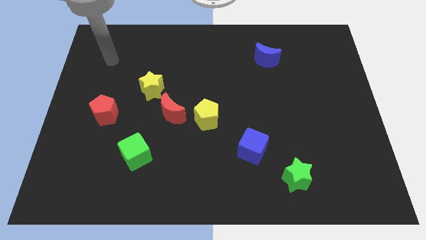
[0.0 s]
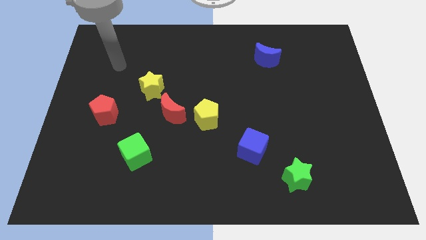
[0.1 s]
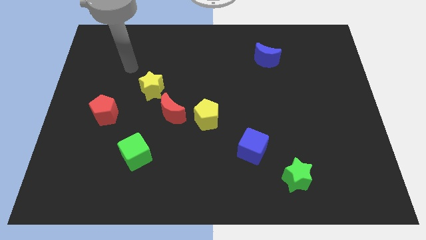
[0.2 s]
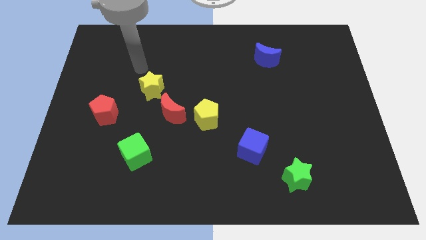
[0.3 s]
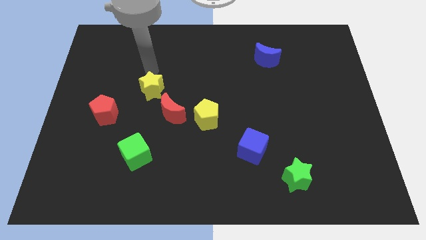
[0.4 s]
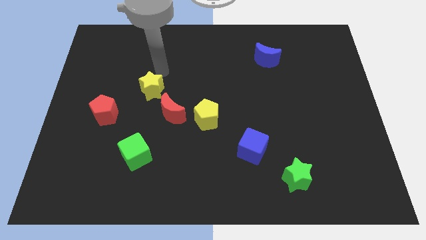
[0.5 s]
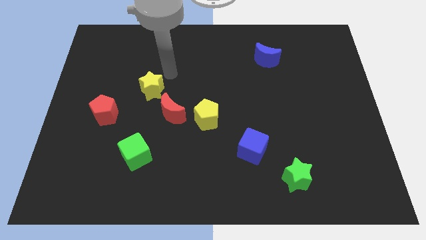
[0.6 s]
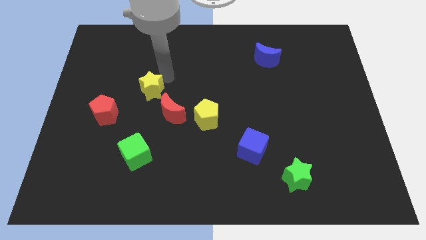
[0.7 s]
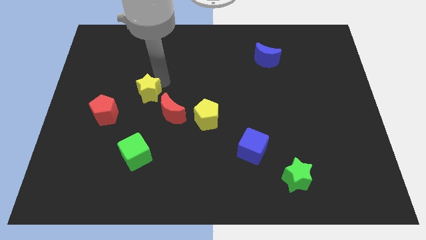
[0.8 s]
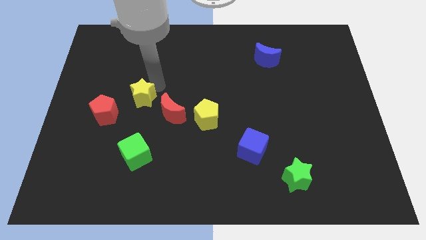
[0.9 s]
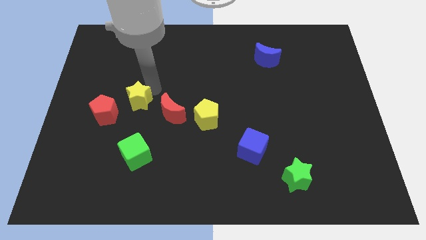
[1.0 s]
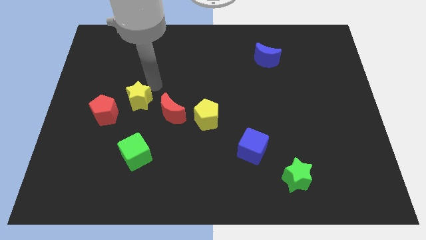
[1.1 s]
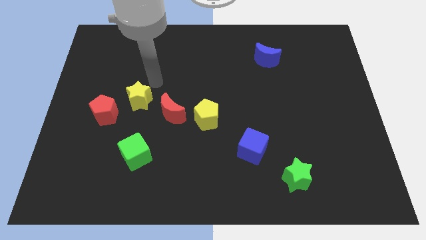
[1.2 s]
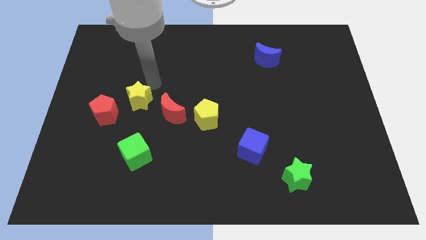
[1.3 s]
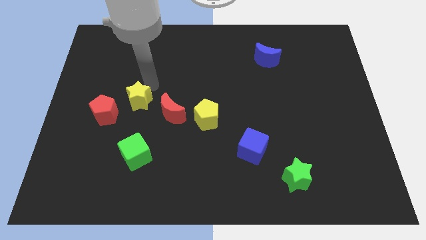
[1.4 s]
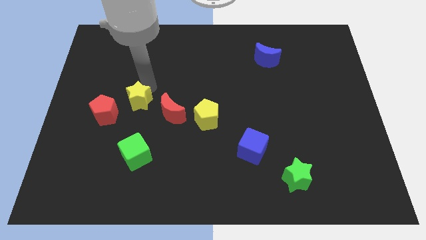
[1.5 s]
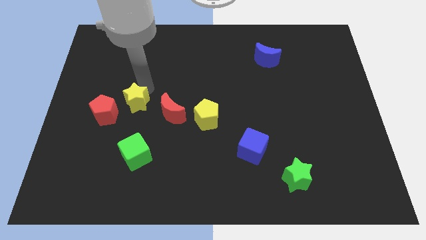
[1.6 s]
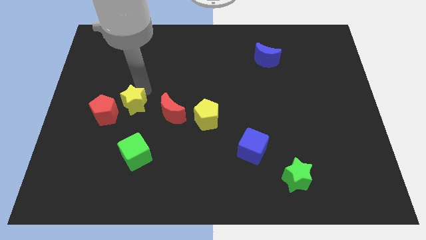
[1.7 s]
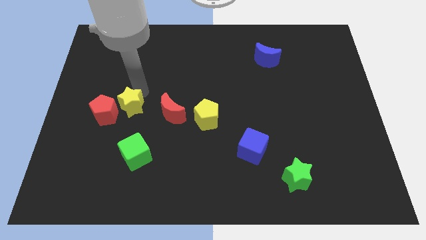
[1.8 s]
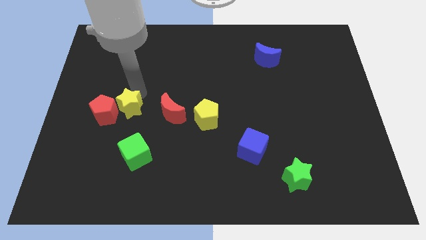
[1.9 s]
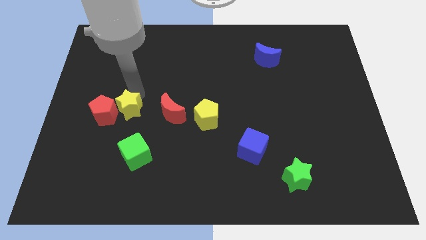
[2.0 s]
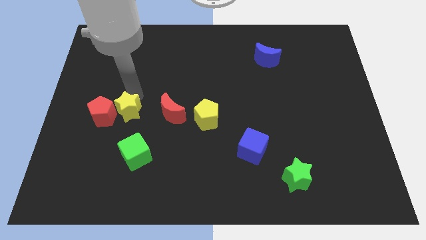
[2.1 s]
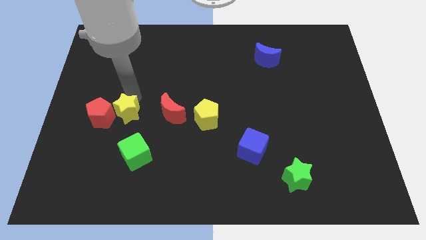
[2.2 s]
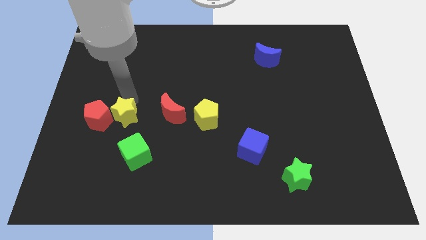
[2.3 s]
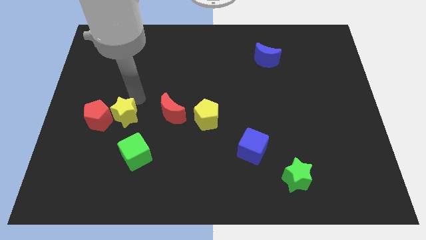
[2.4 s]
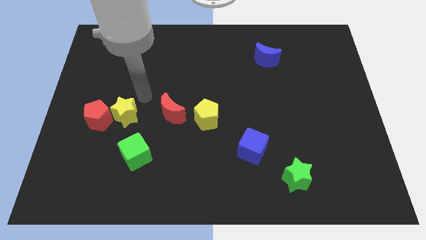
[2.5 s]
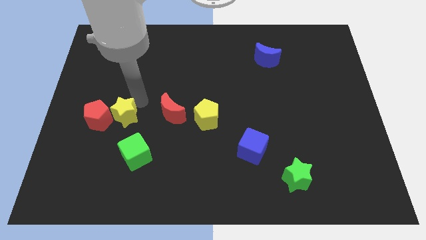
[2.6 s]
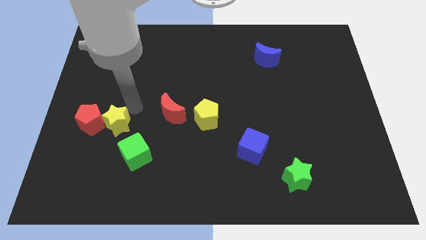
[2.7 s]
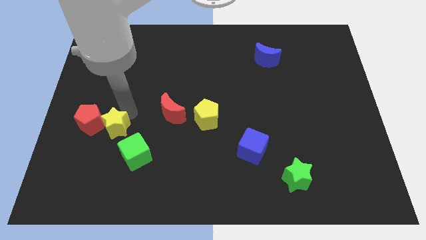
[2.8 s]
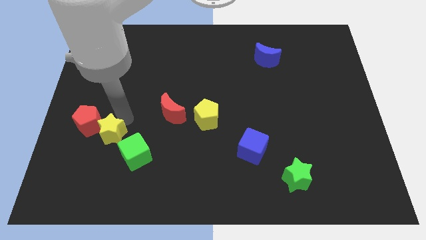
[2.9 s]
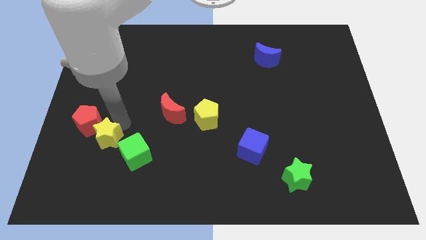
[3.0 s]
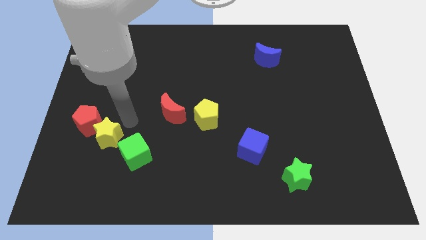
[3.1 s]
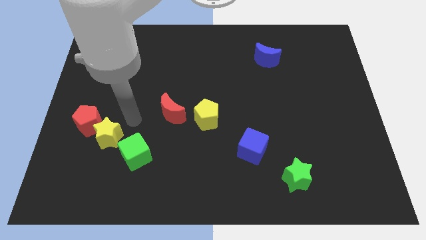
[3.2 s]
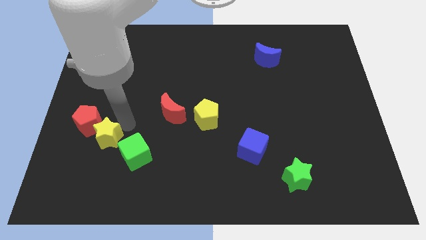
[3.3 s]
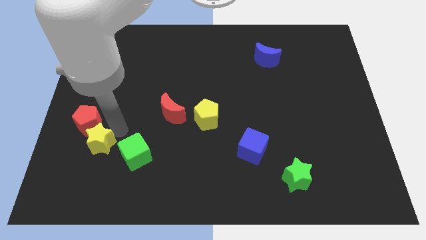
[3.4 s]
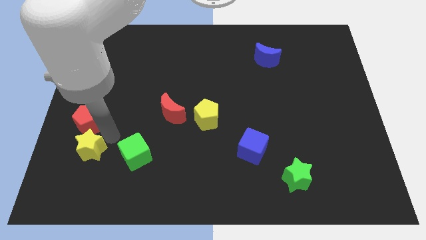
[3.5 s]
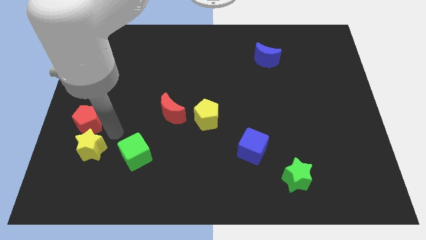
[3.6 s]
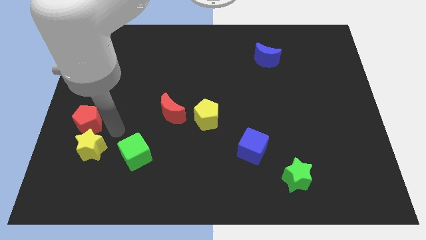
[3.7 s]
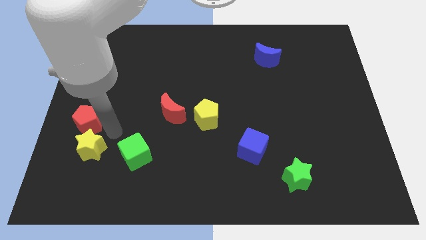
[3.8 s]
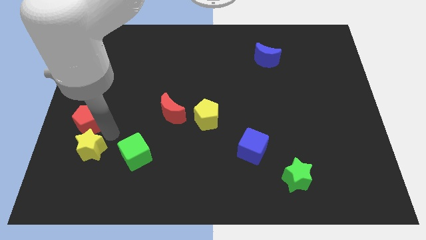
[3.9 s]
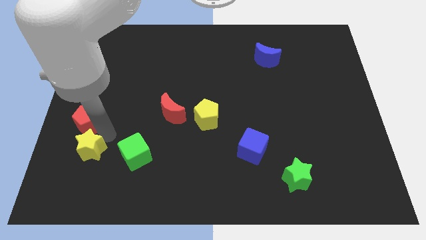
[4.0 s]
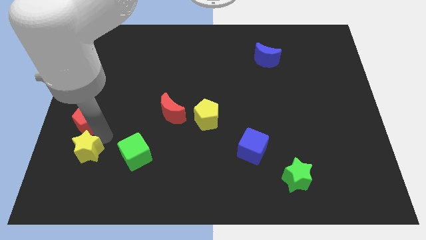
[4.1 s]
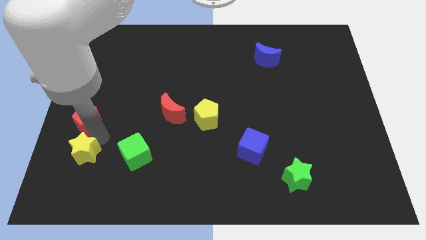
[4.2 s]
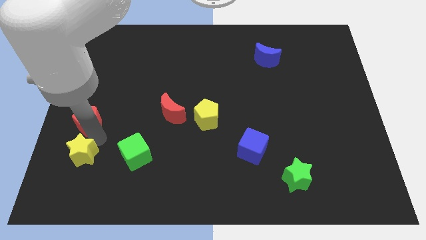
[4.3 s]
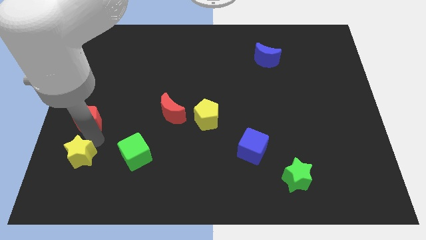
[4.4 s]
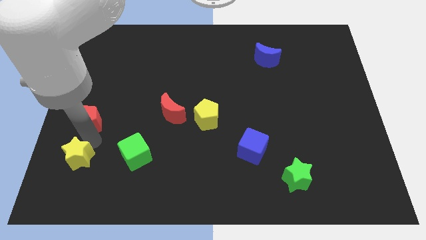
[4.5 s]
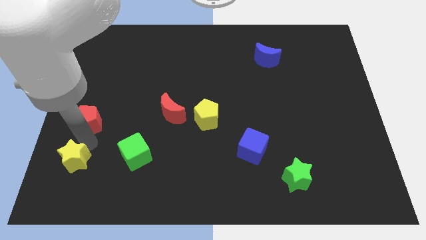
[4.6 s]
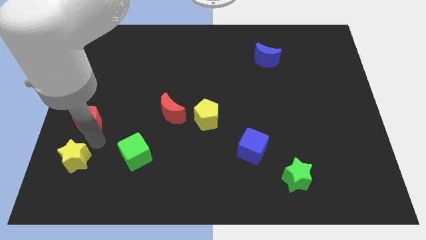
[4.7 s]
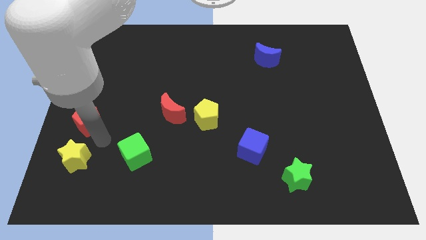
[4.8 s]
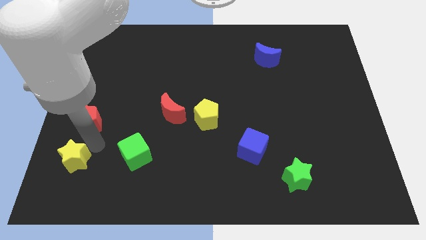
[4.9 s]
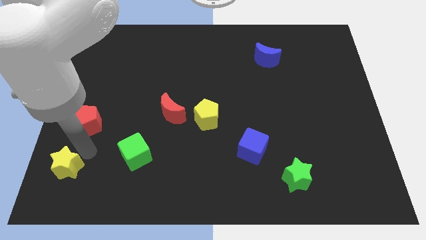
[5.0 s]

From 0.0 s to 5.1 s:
put the yellow star to the bottom left of the board

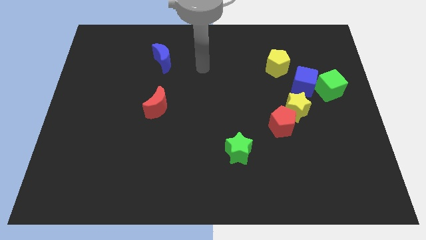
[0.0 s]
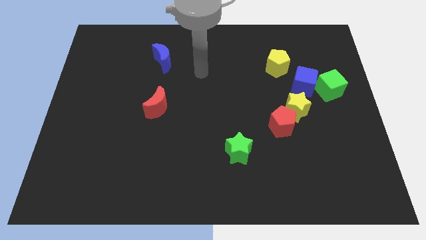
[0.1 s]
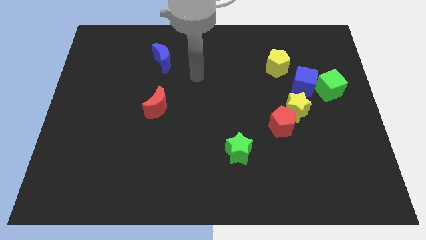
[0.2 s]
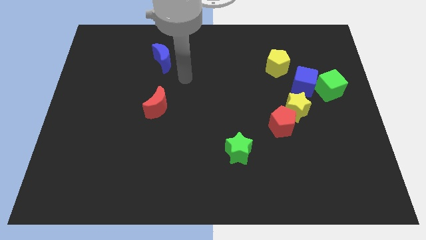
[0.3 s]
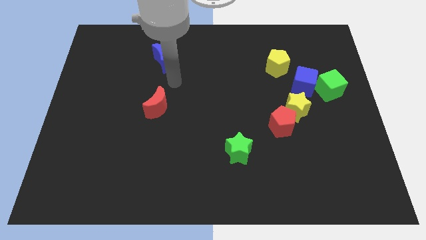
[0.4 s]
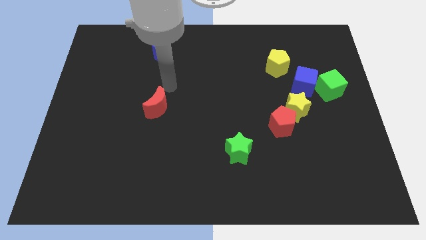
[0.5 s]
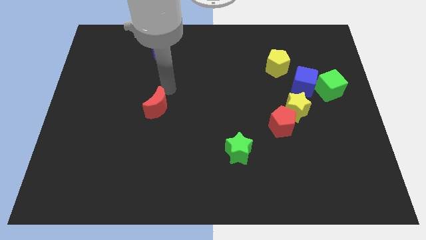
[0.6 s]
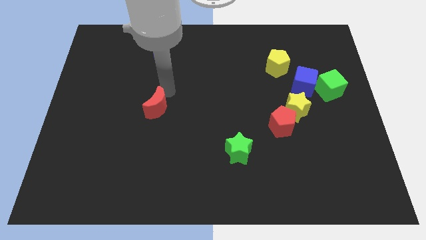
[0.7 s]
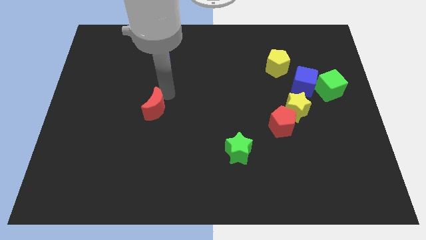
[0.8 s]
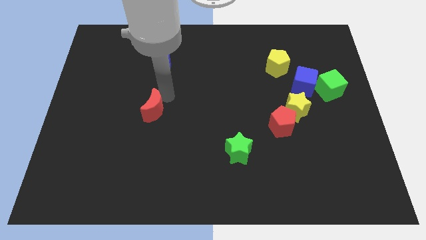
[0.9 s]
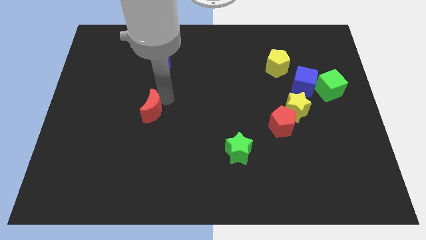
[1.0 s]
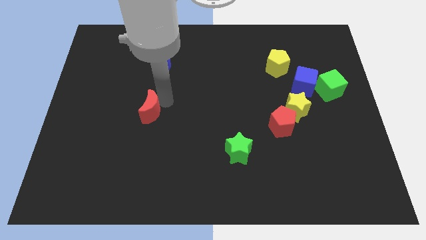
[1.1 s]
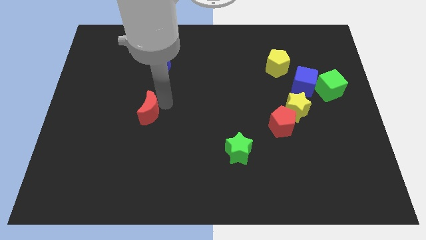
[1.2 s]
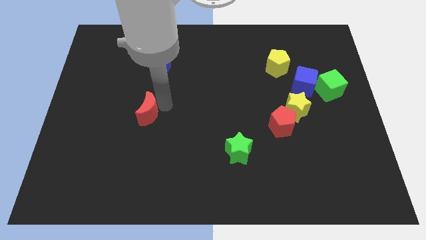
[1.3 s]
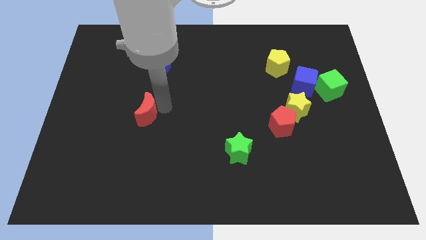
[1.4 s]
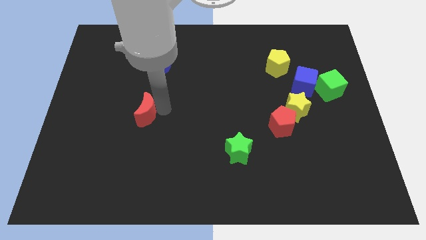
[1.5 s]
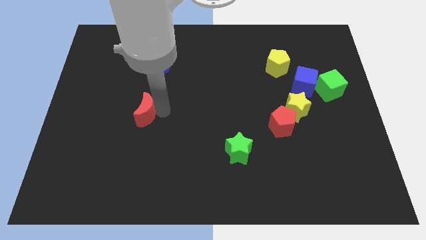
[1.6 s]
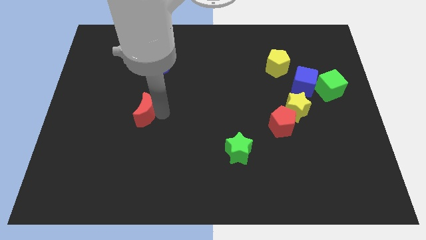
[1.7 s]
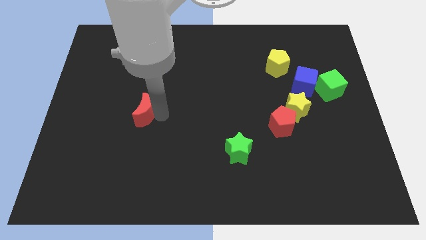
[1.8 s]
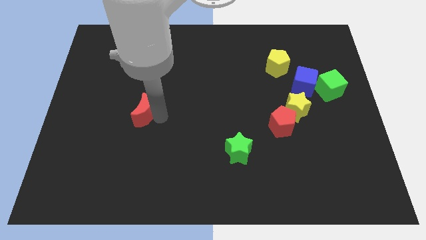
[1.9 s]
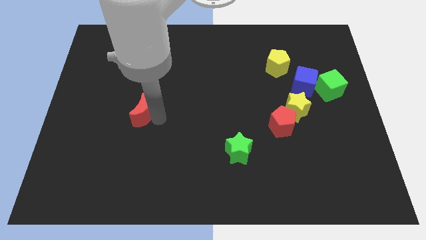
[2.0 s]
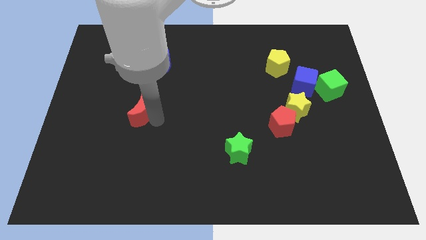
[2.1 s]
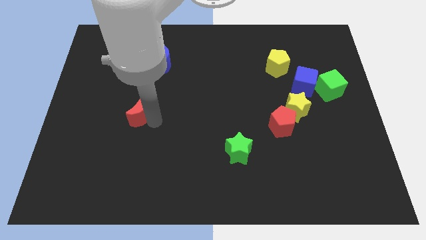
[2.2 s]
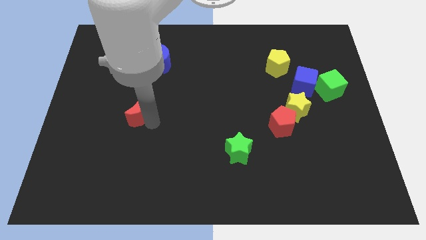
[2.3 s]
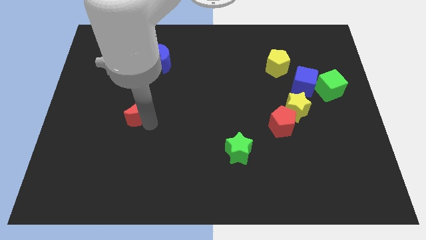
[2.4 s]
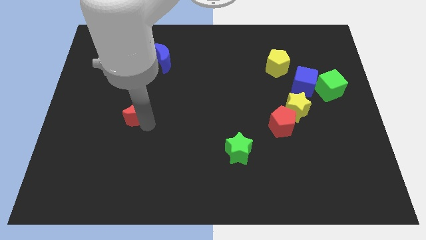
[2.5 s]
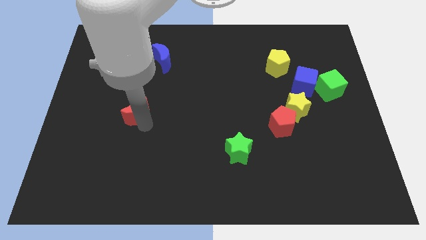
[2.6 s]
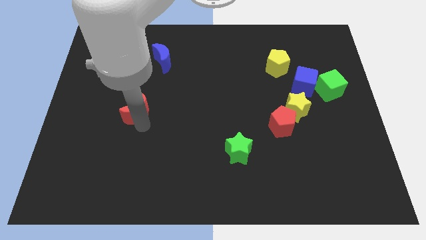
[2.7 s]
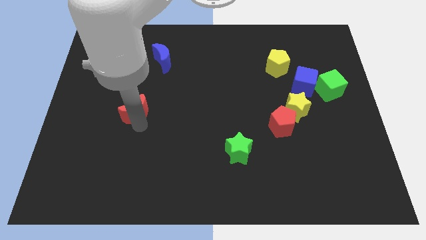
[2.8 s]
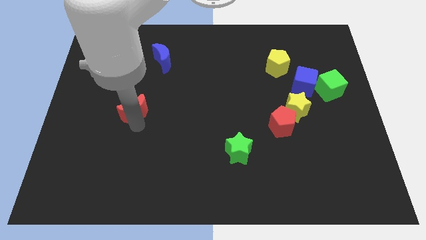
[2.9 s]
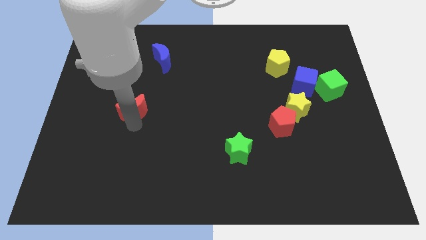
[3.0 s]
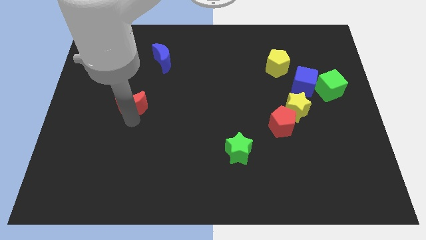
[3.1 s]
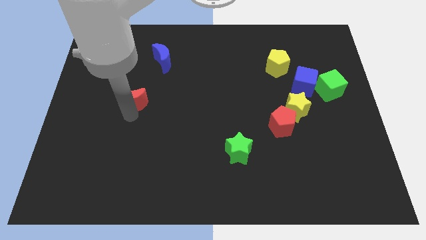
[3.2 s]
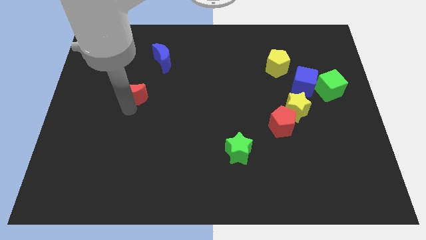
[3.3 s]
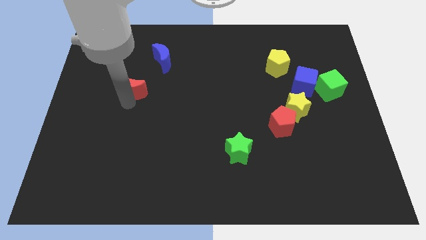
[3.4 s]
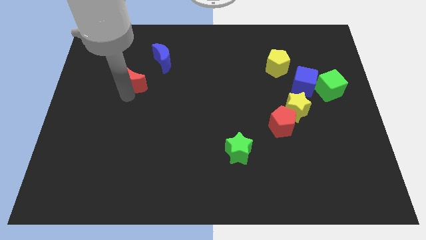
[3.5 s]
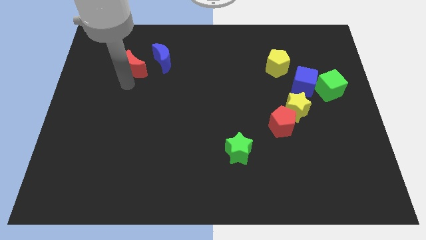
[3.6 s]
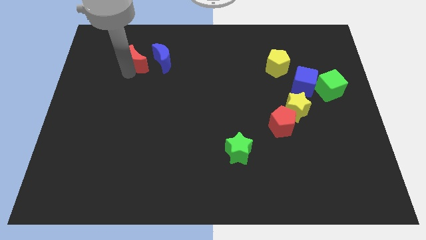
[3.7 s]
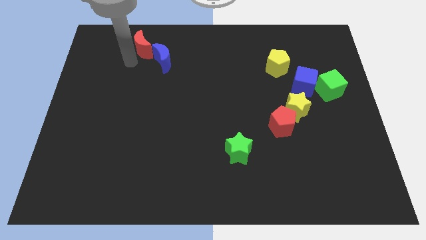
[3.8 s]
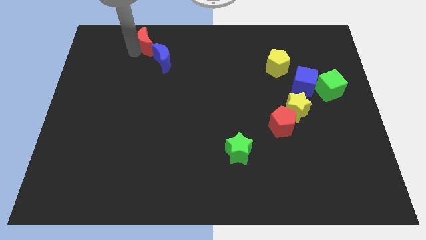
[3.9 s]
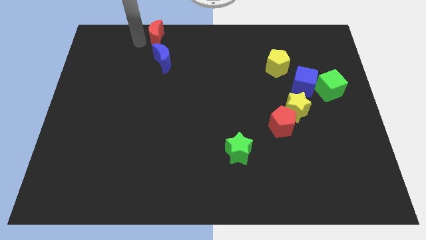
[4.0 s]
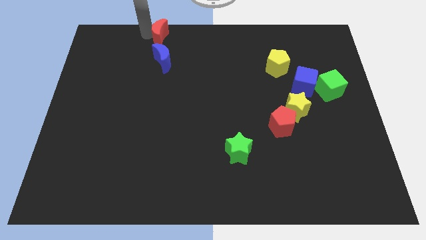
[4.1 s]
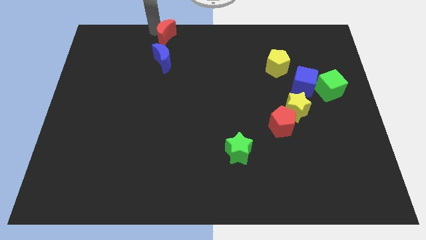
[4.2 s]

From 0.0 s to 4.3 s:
slide the red moon to the top side
